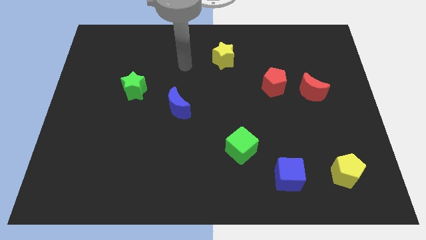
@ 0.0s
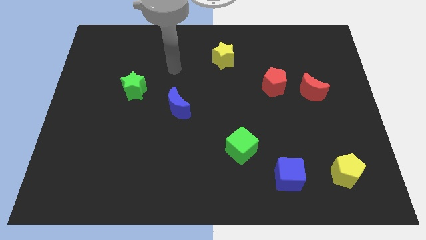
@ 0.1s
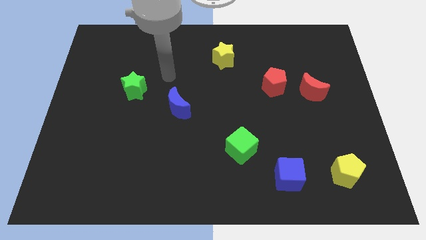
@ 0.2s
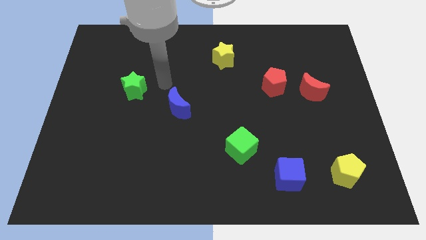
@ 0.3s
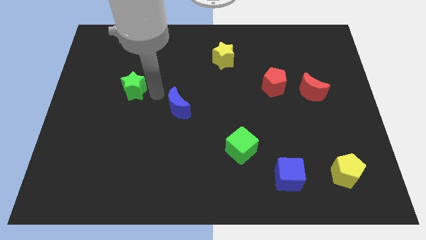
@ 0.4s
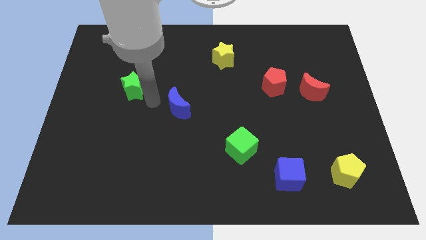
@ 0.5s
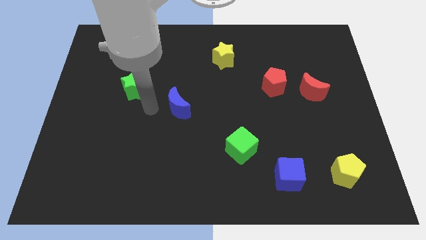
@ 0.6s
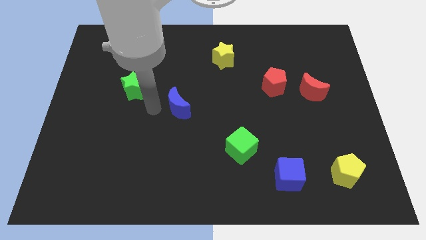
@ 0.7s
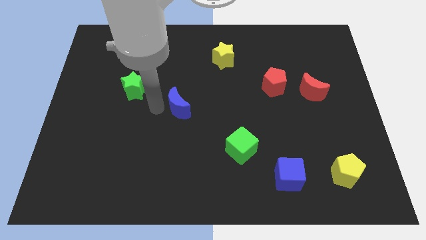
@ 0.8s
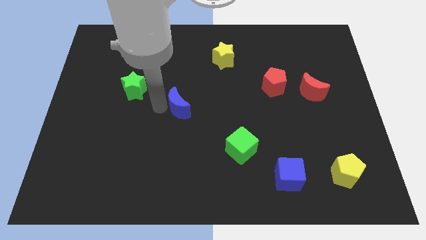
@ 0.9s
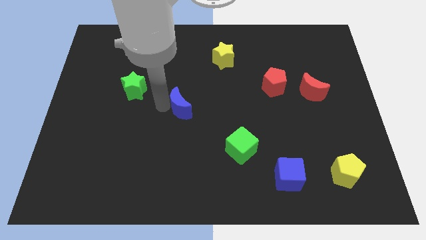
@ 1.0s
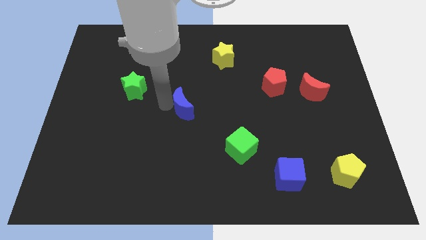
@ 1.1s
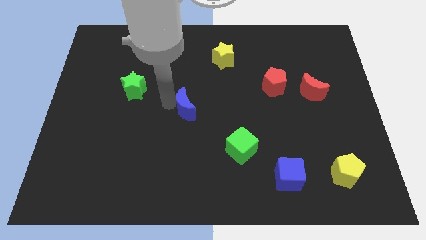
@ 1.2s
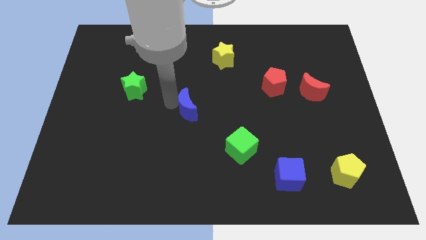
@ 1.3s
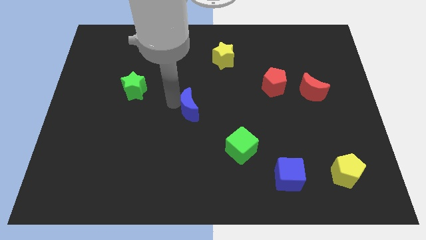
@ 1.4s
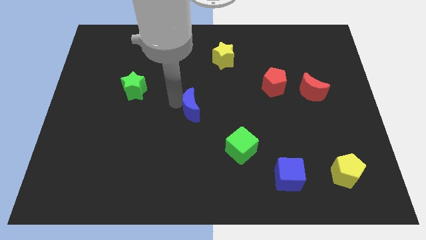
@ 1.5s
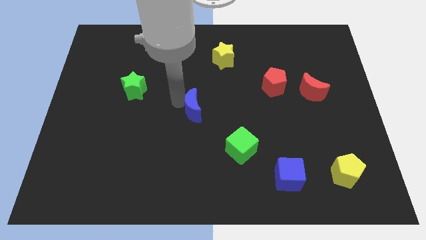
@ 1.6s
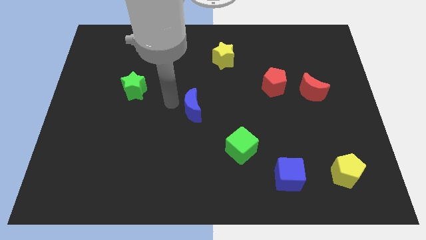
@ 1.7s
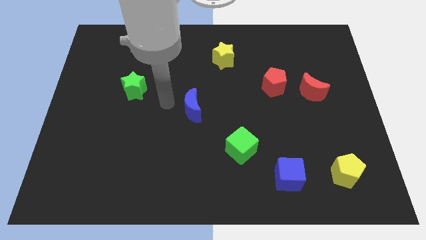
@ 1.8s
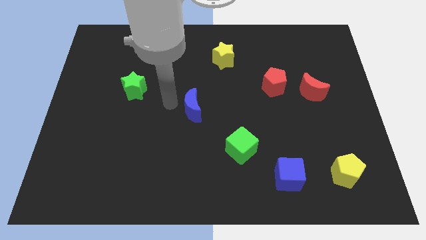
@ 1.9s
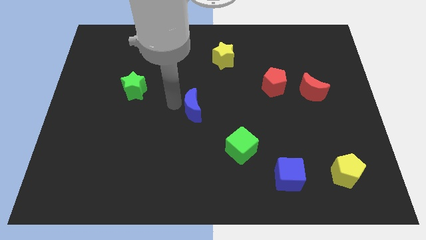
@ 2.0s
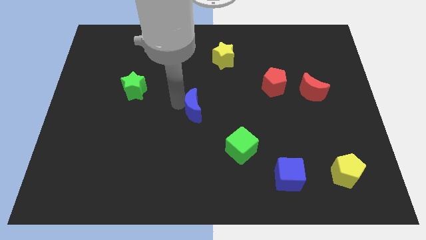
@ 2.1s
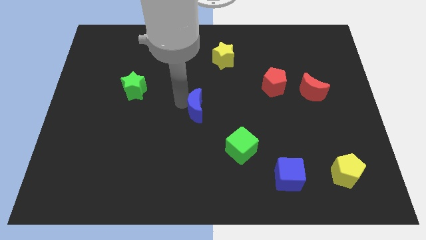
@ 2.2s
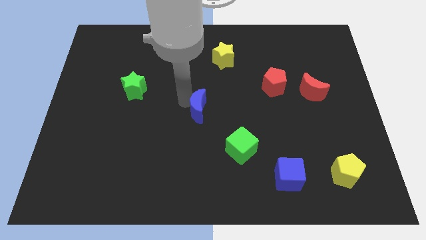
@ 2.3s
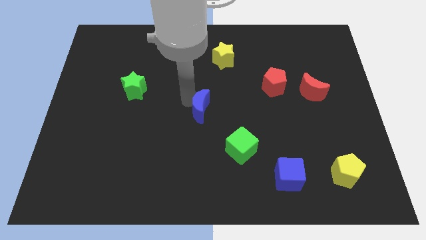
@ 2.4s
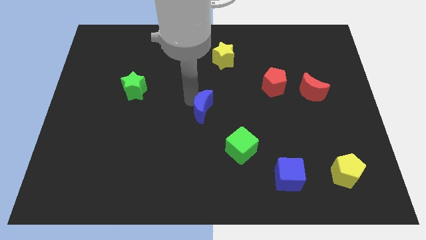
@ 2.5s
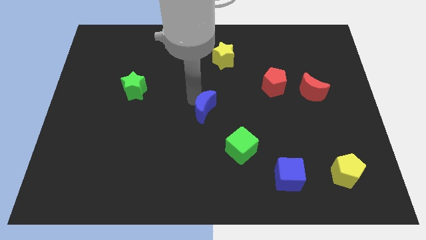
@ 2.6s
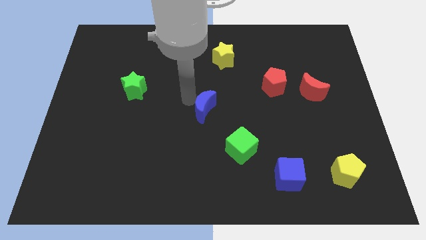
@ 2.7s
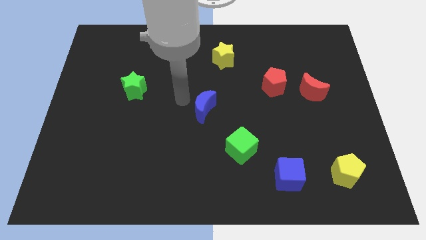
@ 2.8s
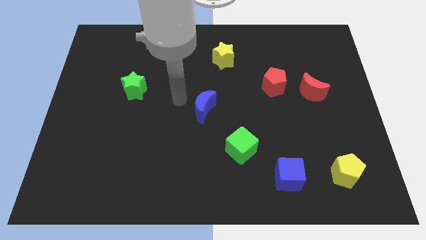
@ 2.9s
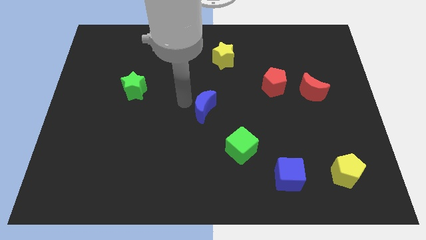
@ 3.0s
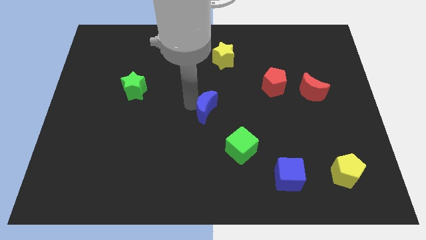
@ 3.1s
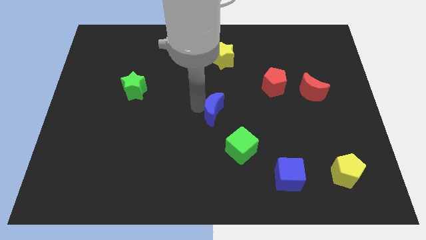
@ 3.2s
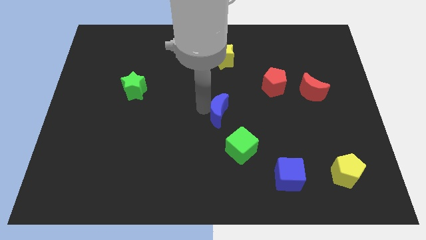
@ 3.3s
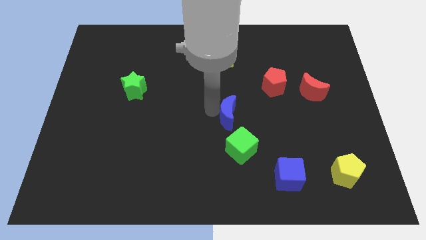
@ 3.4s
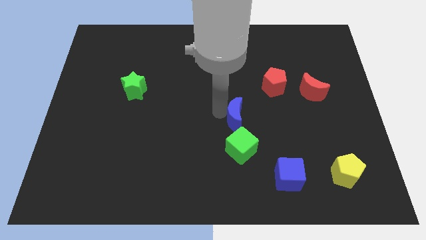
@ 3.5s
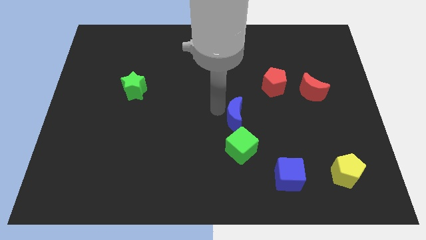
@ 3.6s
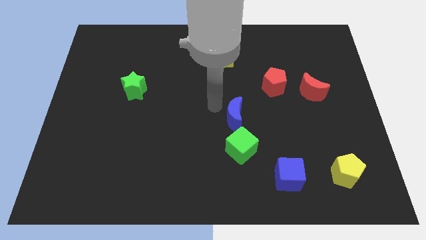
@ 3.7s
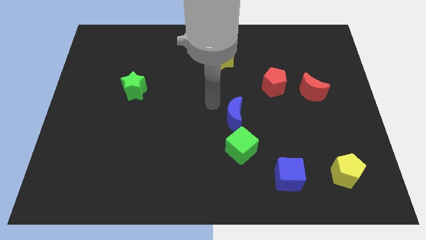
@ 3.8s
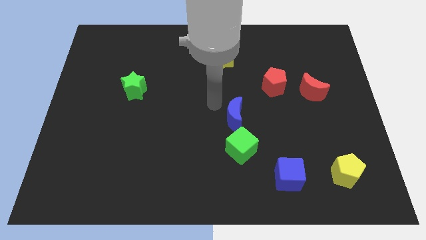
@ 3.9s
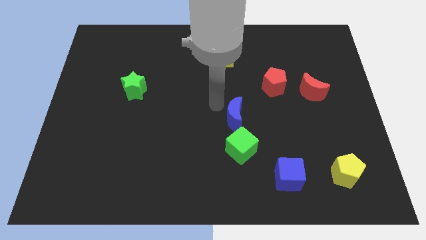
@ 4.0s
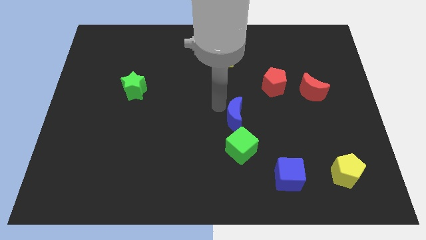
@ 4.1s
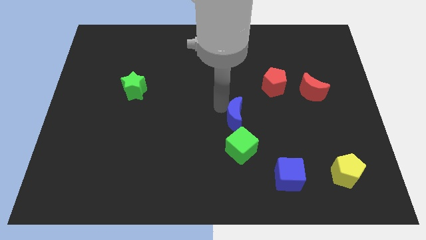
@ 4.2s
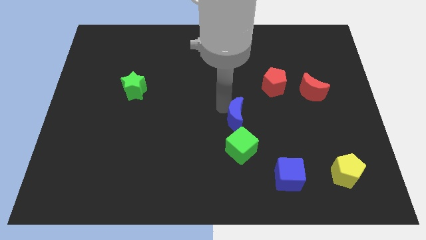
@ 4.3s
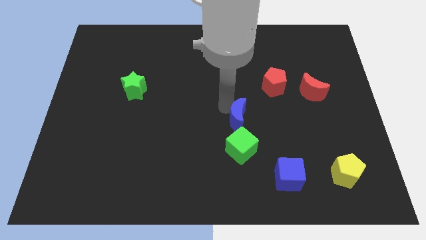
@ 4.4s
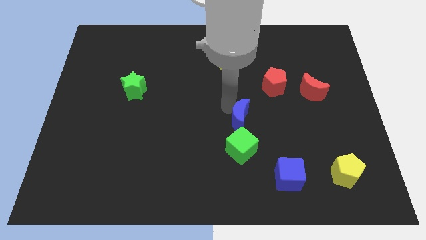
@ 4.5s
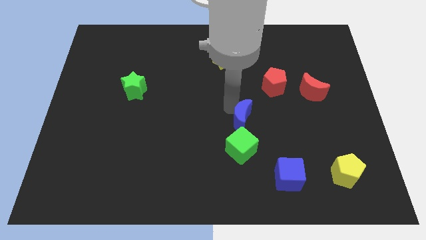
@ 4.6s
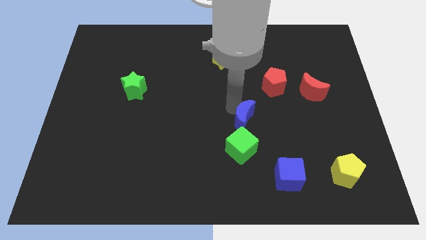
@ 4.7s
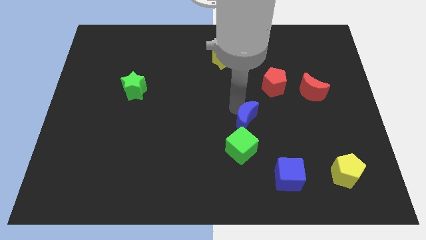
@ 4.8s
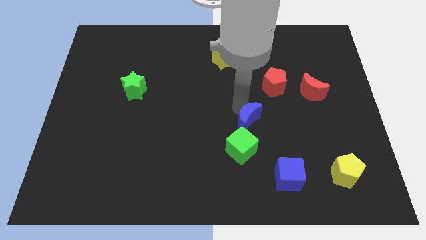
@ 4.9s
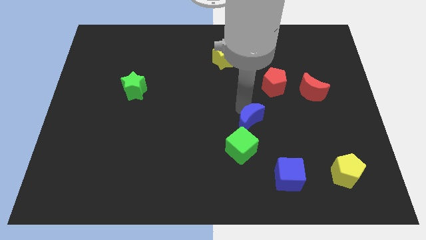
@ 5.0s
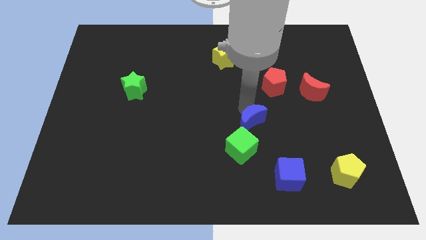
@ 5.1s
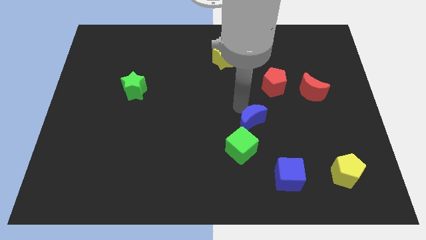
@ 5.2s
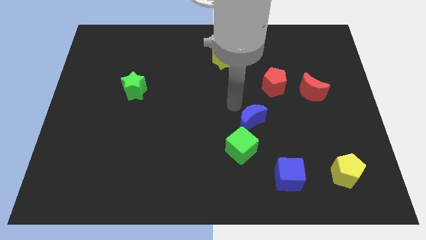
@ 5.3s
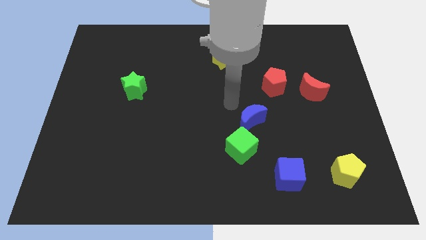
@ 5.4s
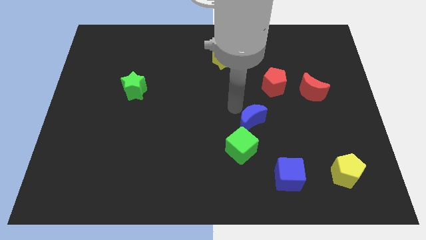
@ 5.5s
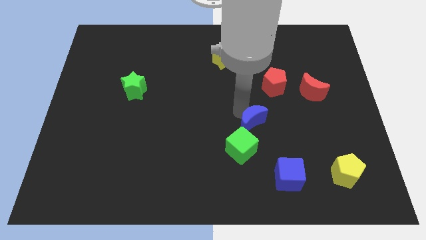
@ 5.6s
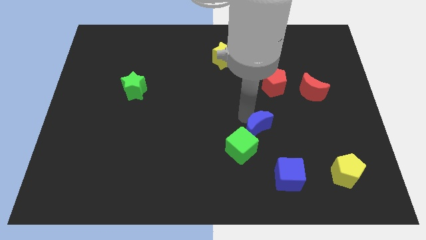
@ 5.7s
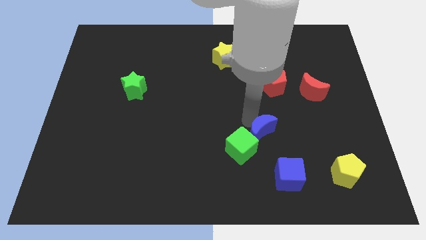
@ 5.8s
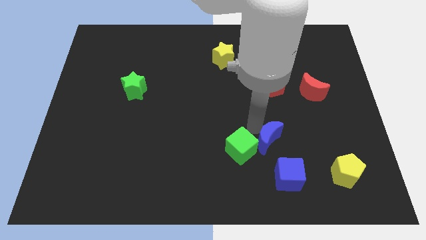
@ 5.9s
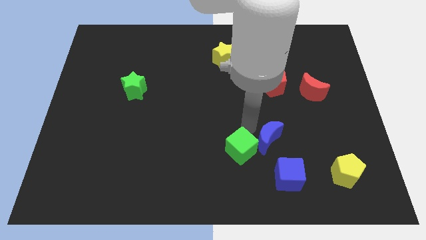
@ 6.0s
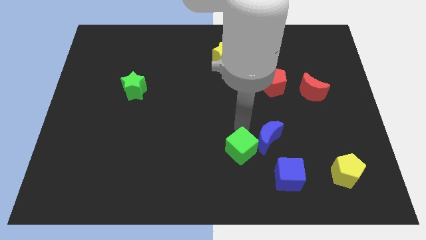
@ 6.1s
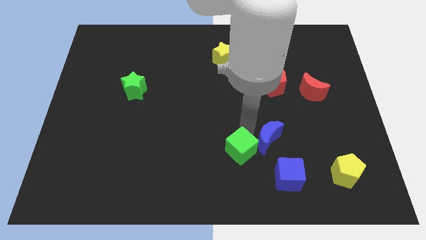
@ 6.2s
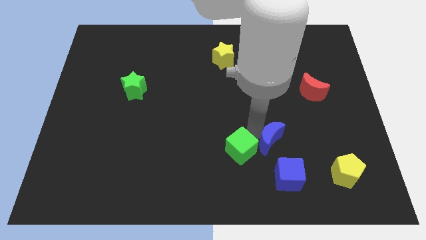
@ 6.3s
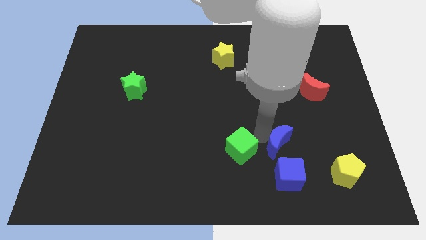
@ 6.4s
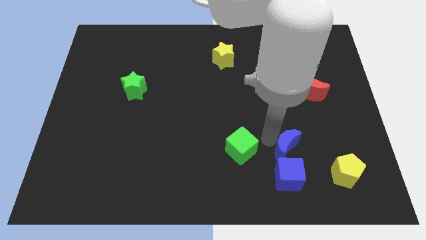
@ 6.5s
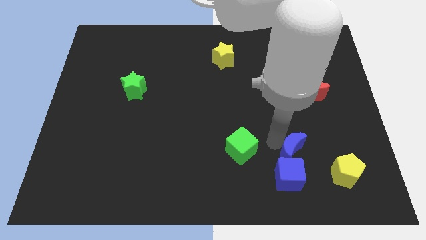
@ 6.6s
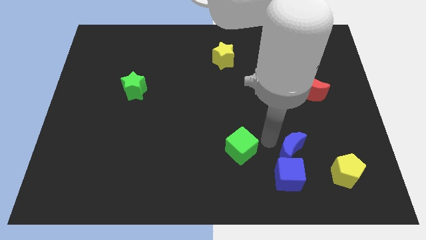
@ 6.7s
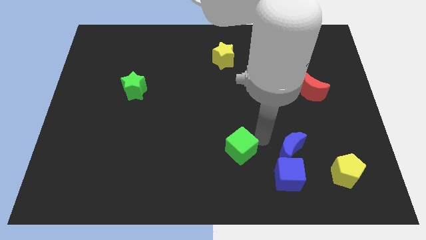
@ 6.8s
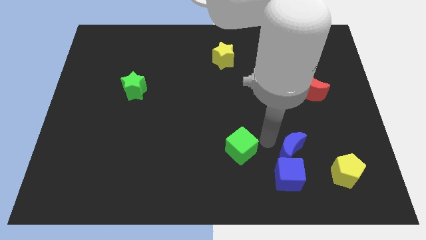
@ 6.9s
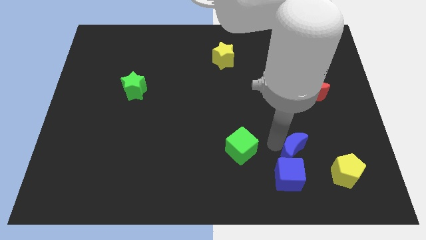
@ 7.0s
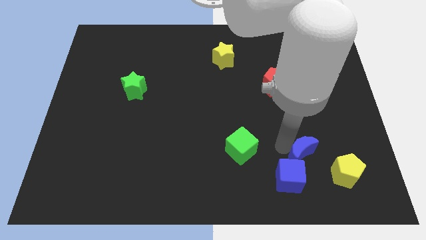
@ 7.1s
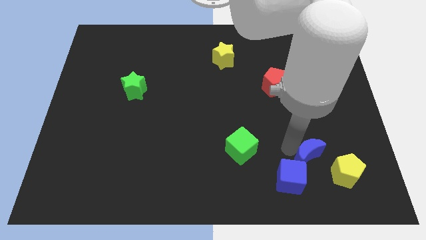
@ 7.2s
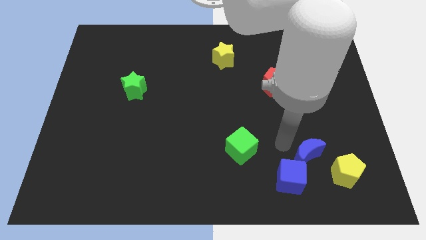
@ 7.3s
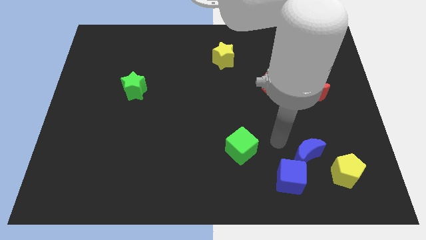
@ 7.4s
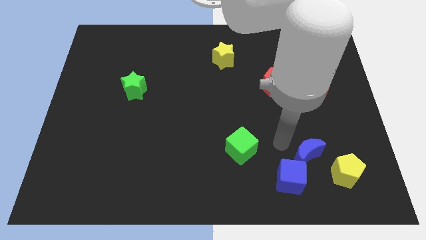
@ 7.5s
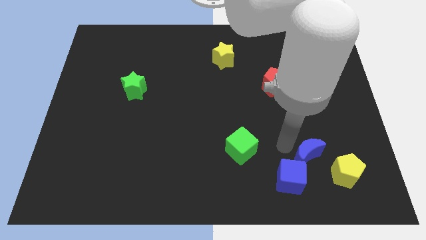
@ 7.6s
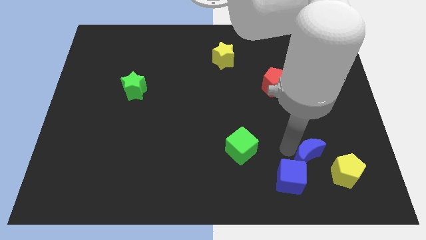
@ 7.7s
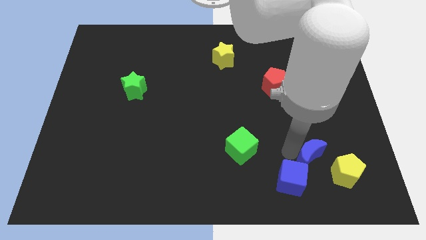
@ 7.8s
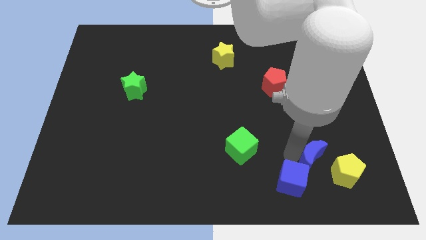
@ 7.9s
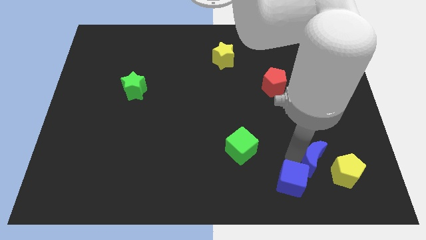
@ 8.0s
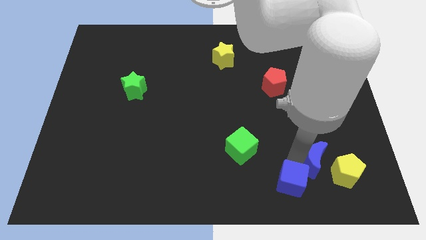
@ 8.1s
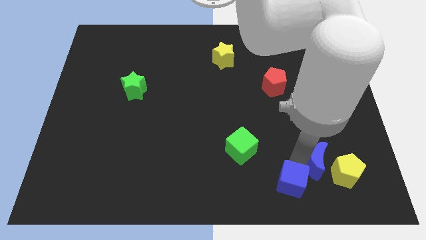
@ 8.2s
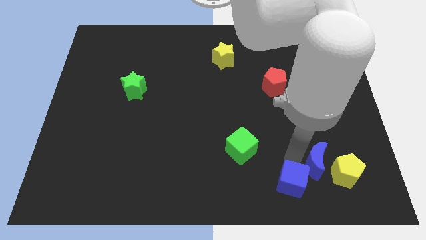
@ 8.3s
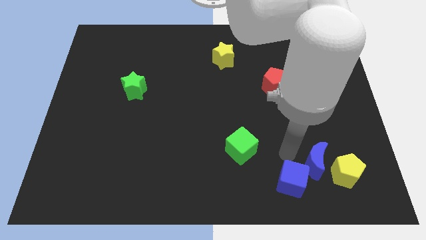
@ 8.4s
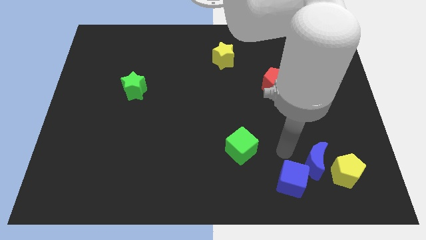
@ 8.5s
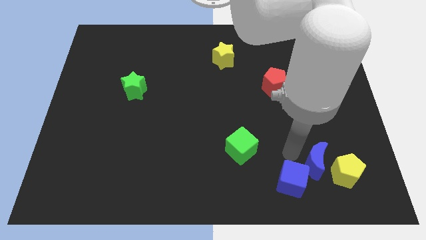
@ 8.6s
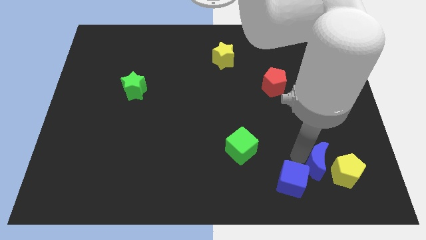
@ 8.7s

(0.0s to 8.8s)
push the blue moon towards the yellow pentagon
